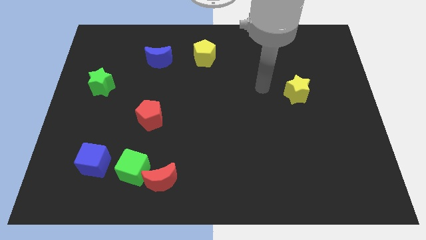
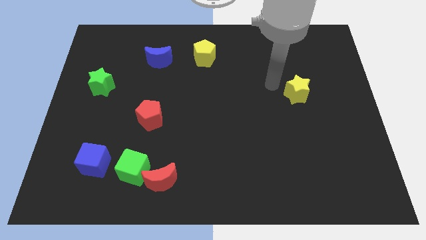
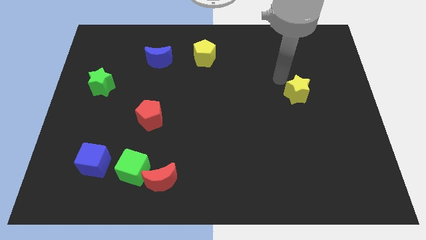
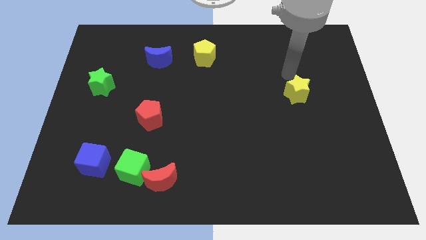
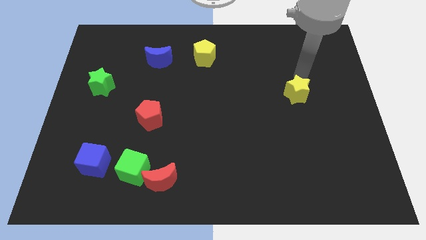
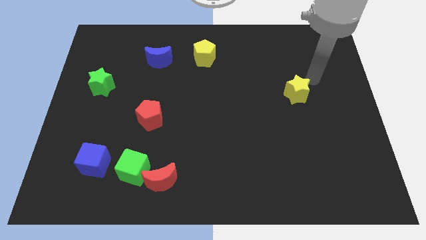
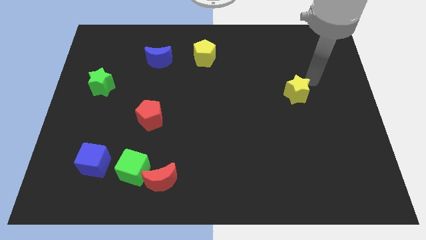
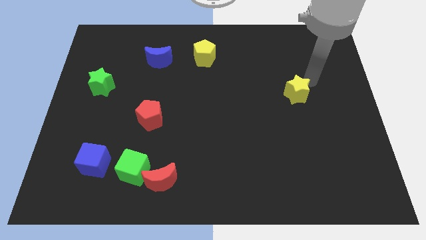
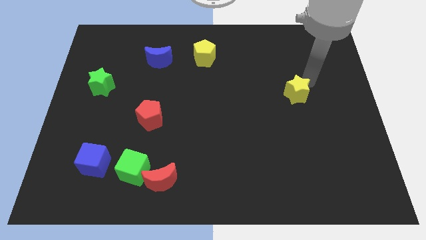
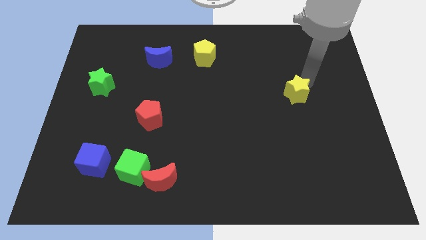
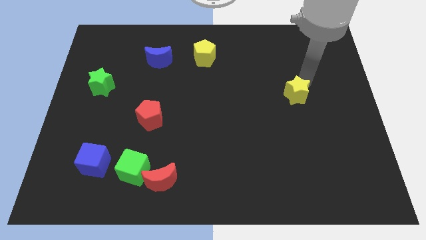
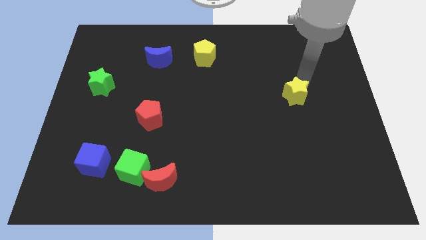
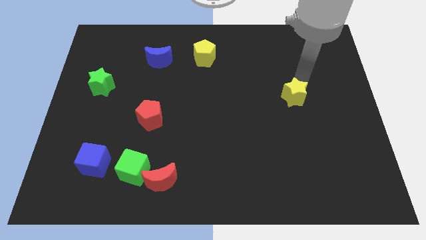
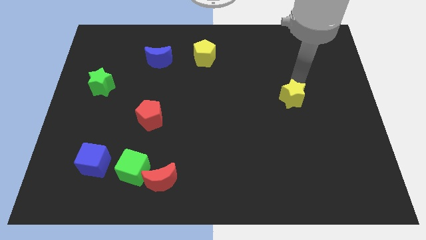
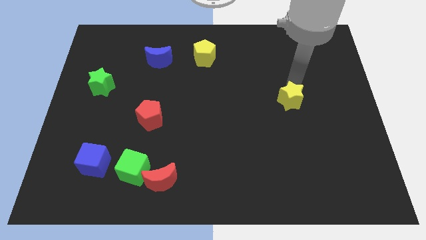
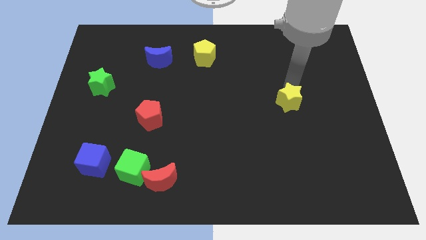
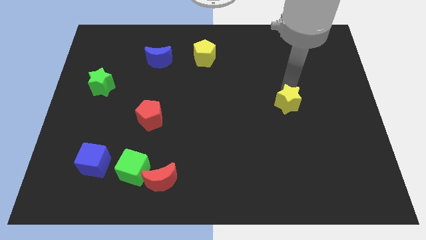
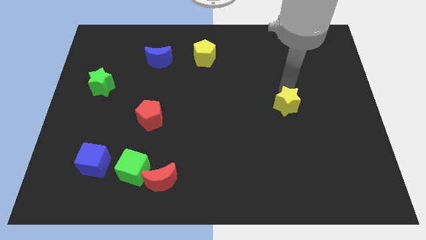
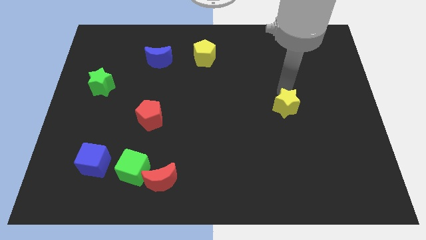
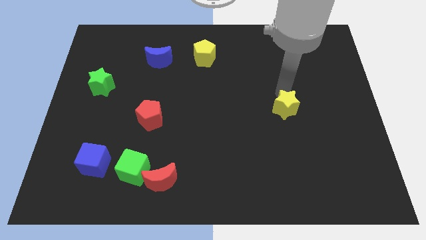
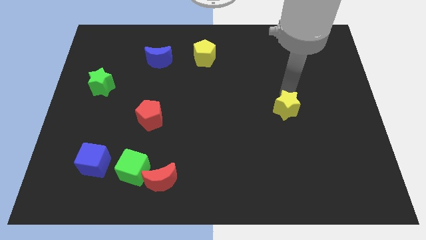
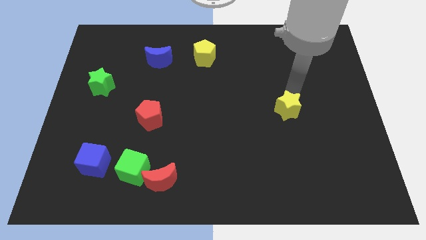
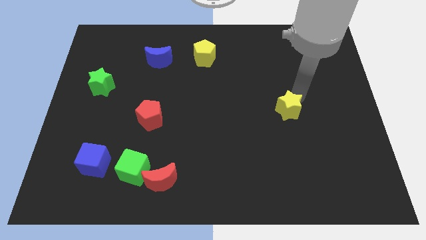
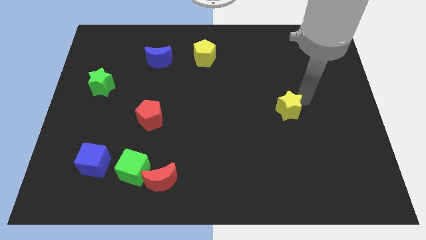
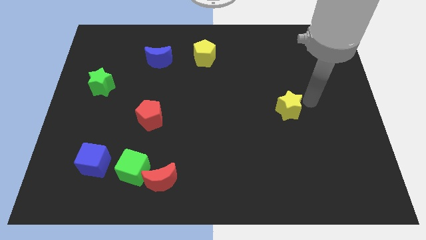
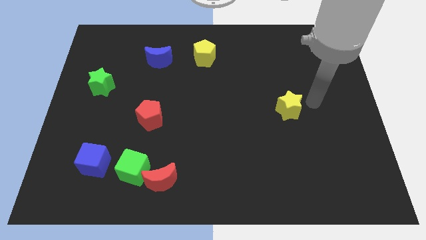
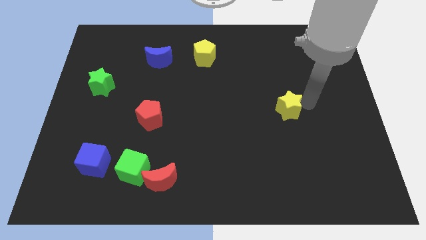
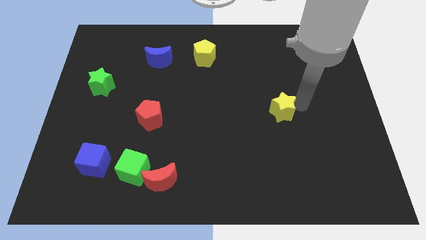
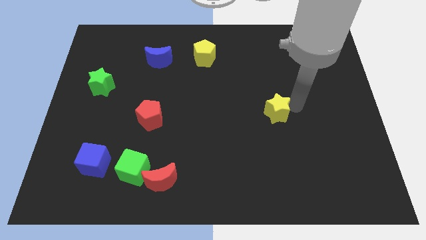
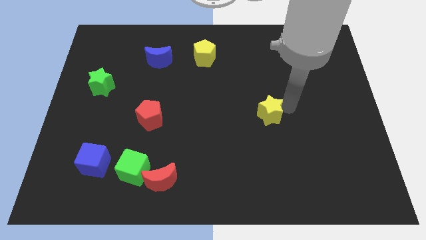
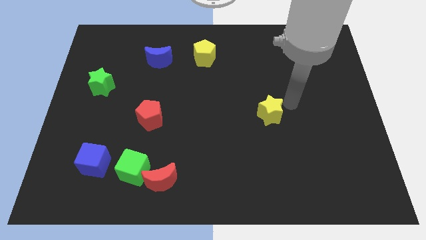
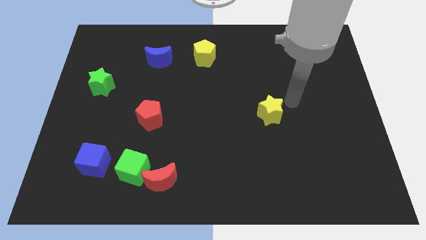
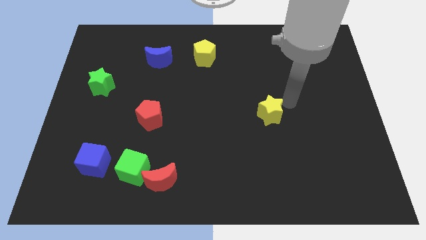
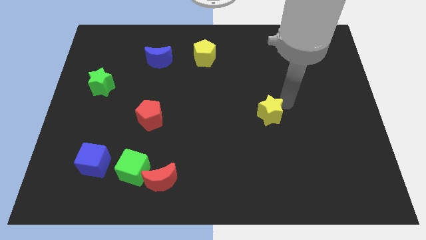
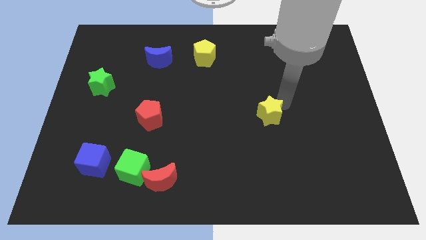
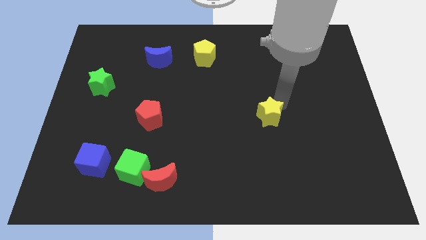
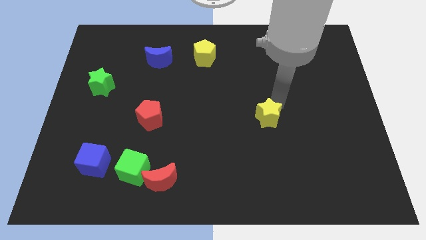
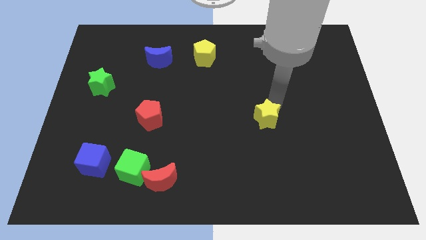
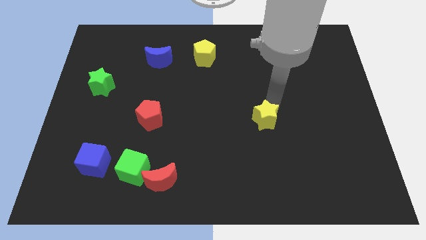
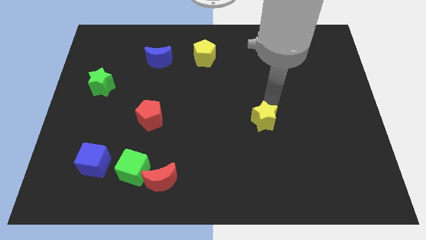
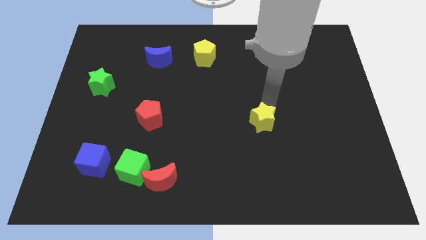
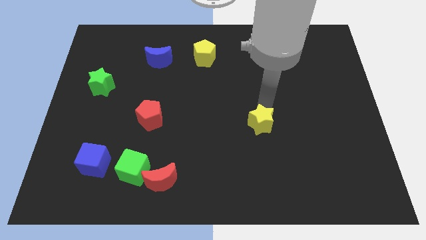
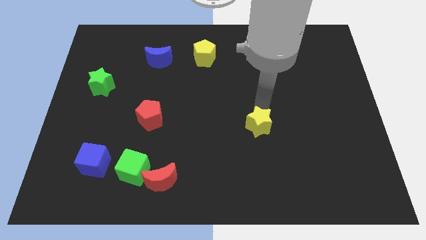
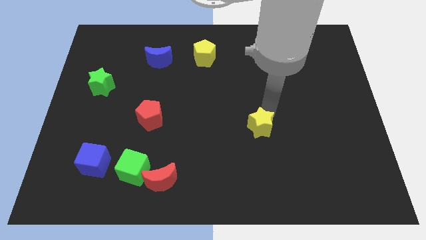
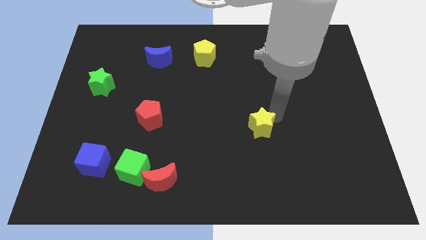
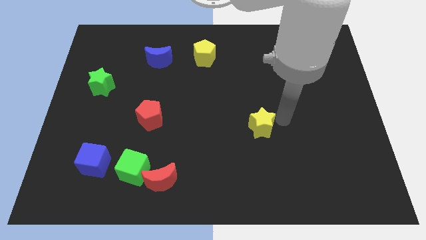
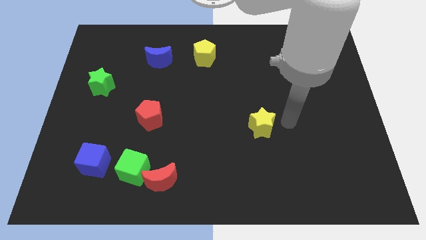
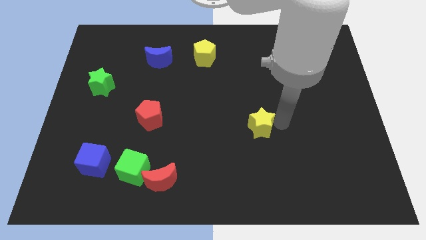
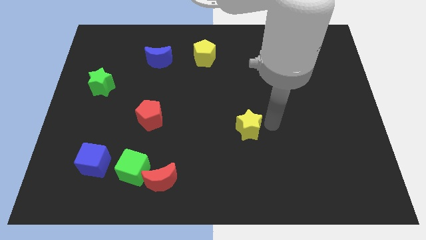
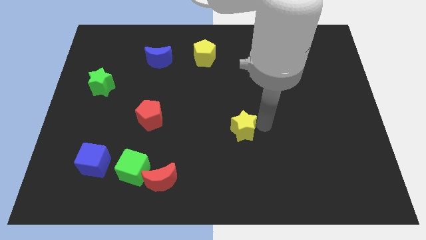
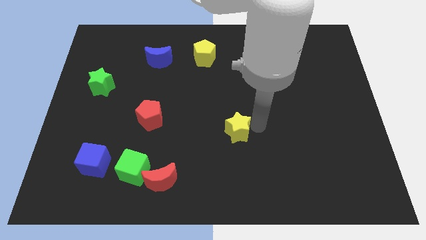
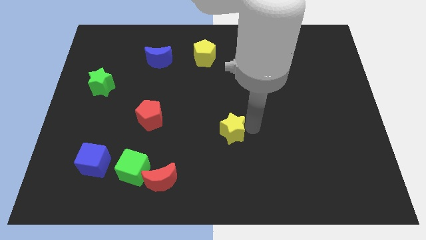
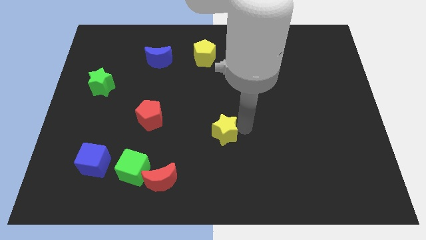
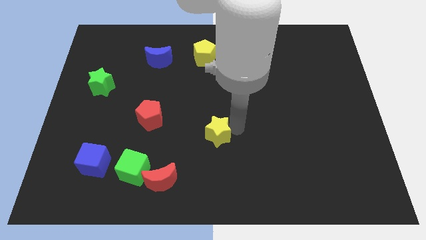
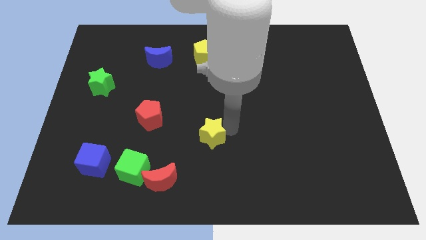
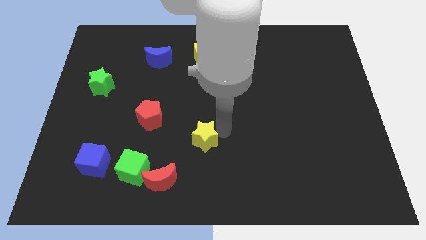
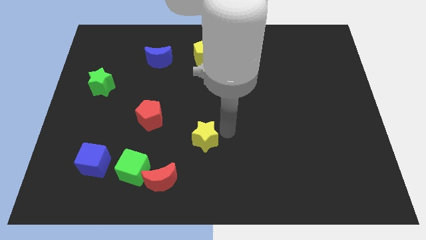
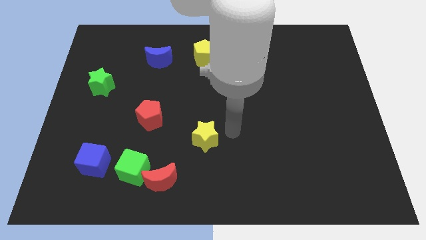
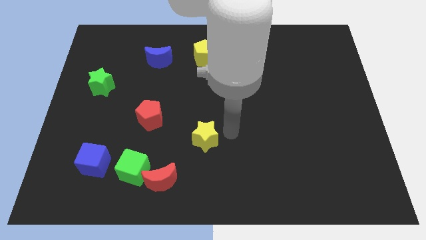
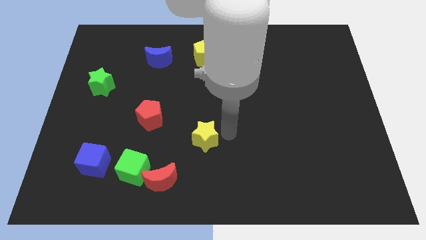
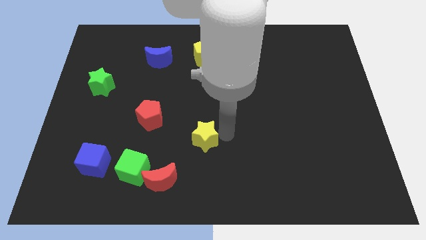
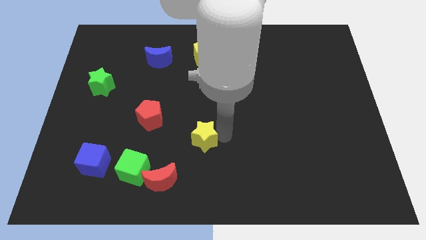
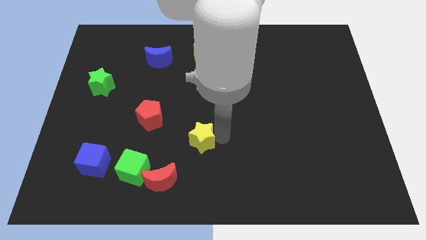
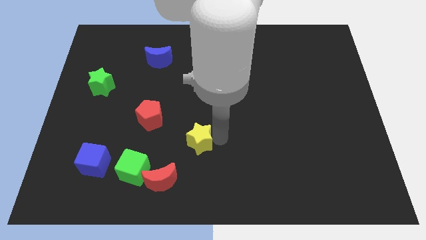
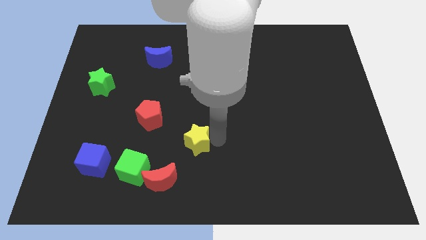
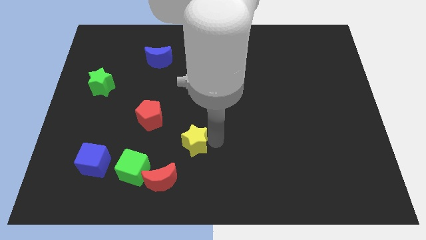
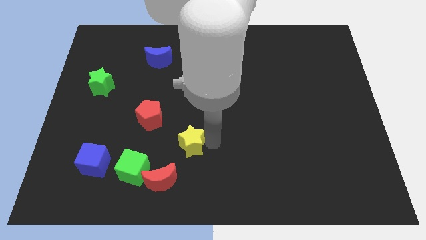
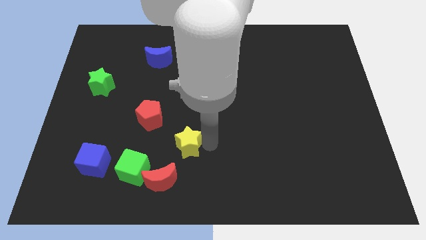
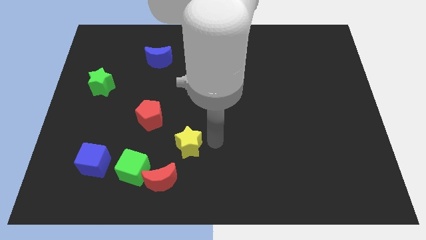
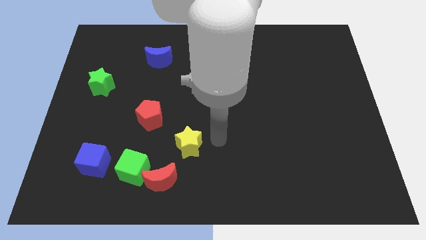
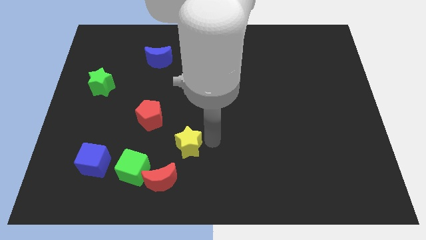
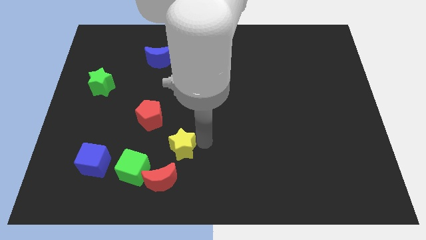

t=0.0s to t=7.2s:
move the yellow star diagonally up and to the right of the green cube

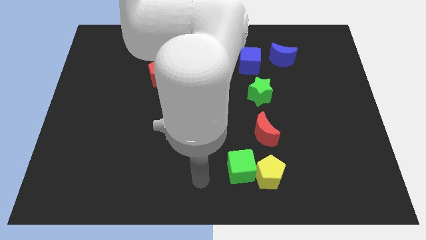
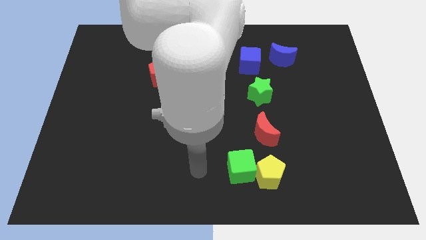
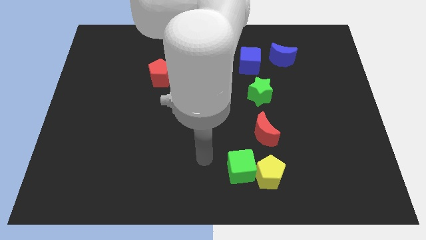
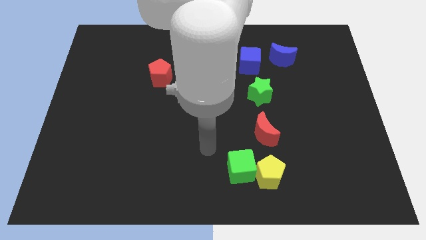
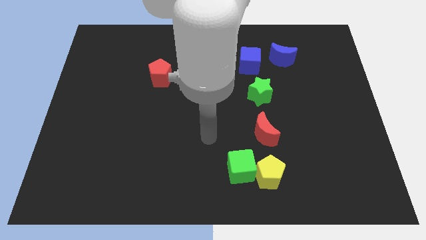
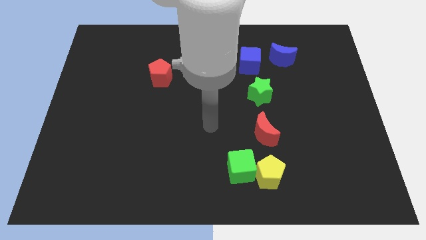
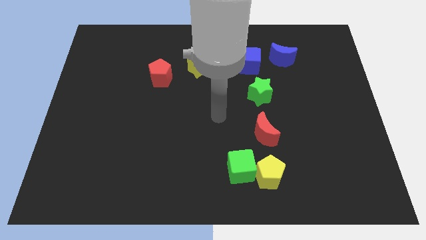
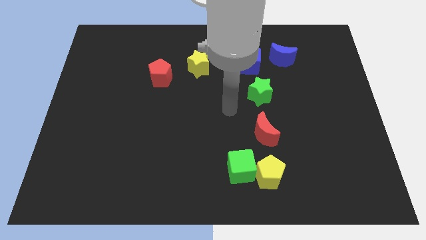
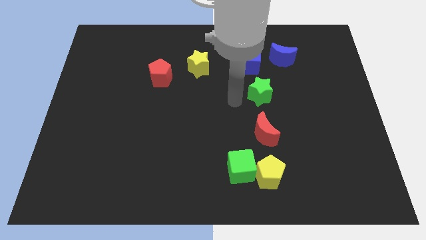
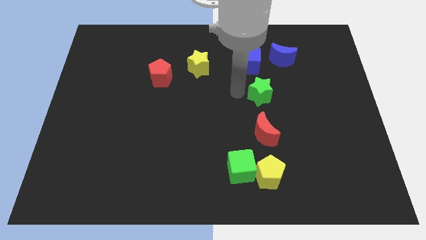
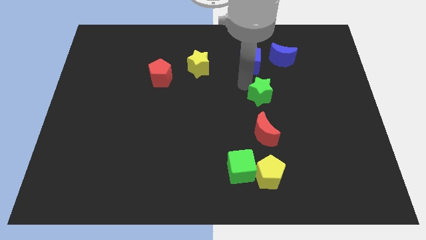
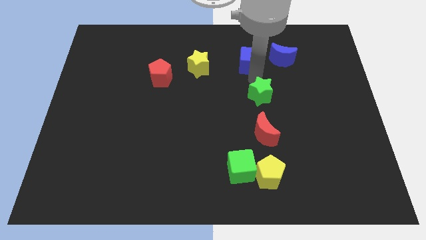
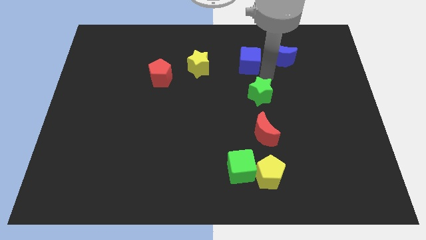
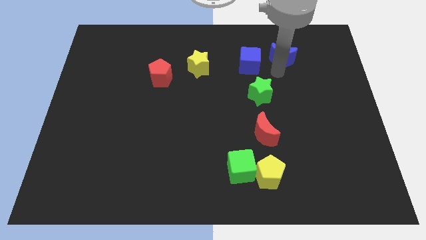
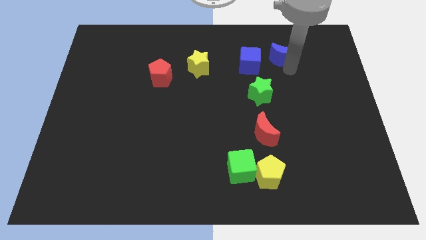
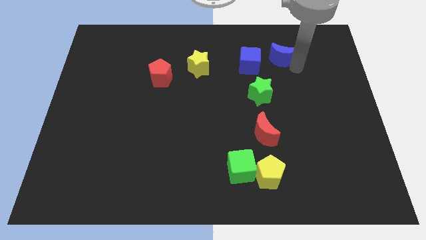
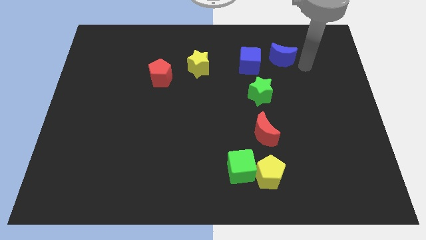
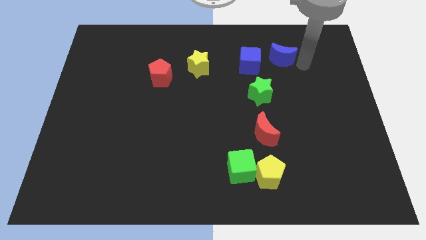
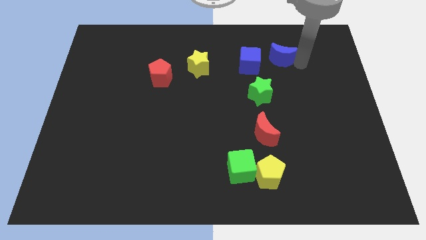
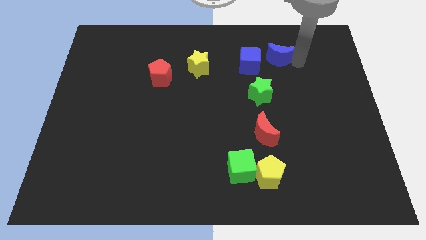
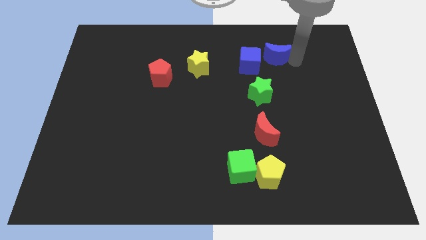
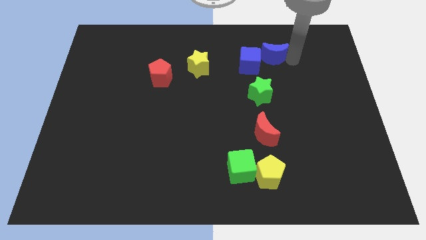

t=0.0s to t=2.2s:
slide the blue moon above the green star
